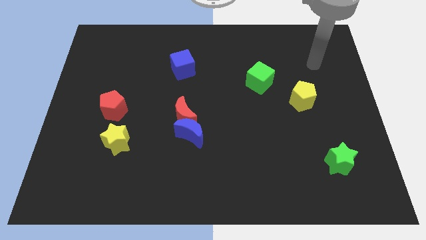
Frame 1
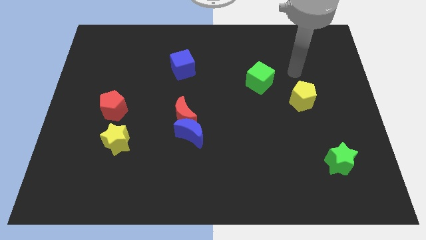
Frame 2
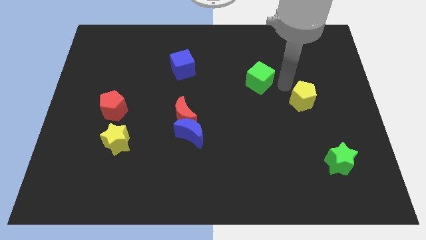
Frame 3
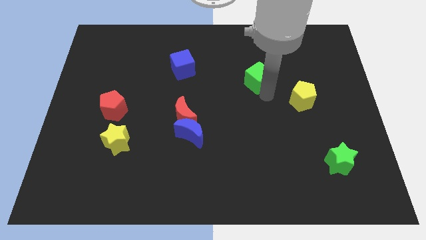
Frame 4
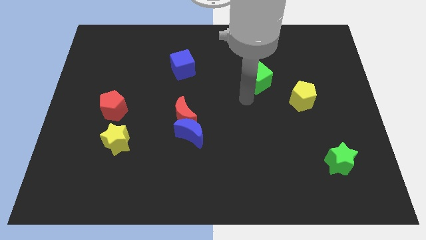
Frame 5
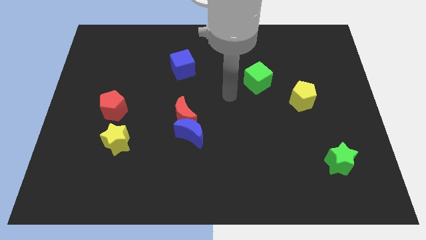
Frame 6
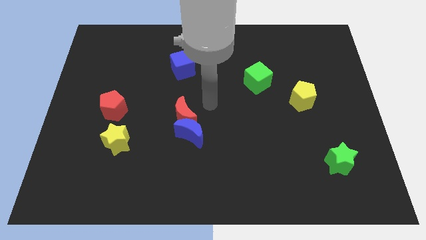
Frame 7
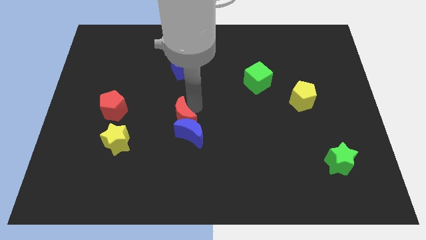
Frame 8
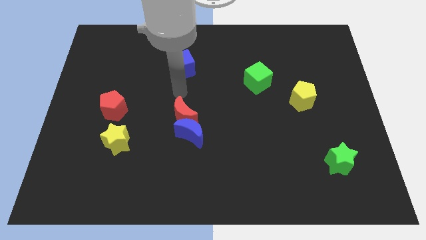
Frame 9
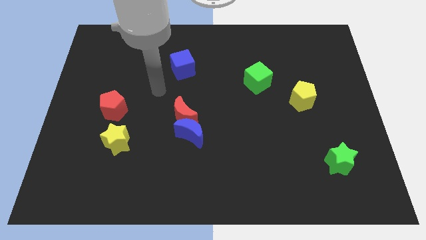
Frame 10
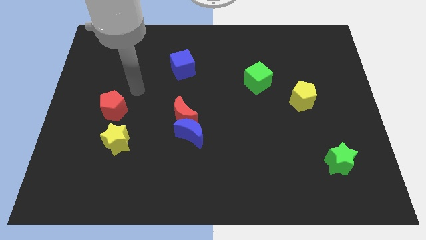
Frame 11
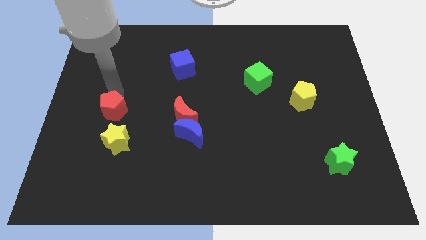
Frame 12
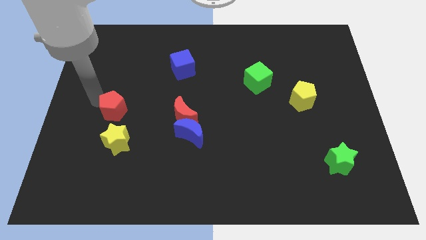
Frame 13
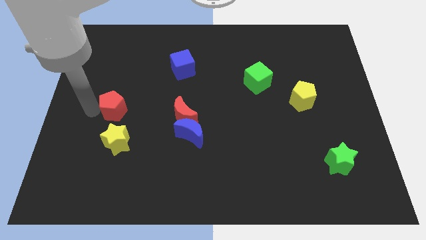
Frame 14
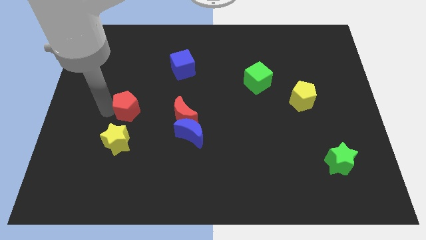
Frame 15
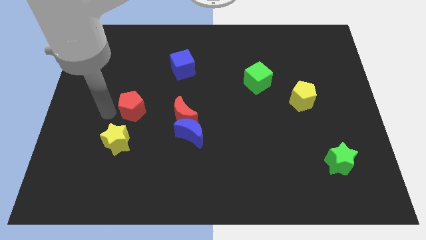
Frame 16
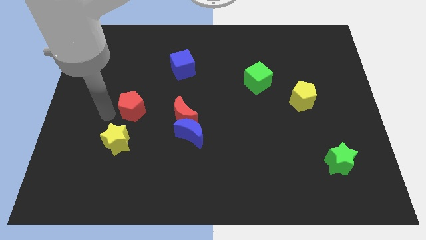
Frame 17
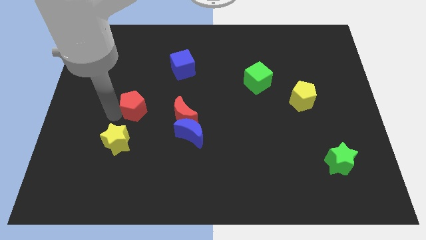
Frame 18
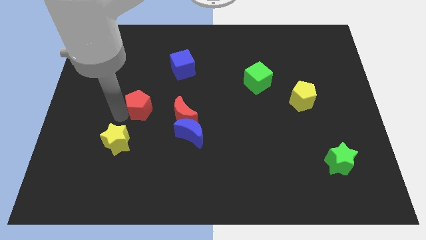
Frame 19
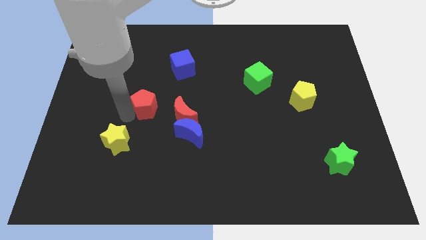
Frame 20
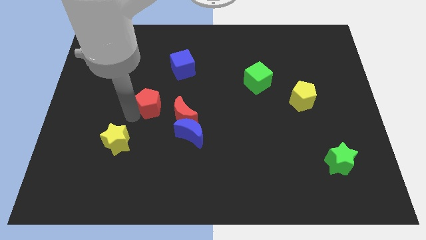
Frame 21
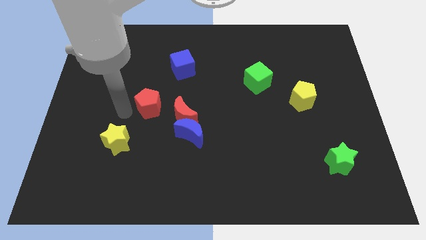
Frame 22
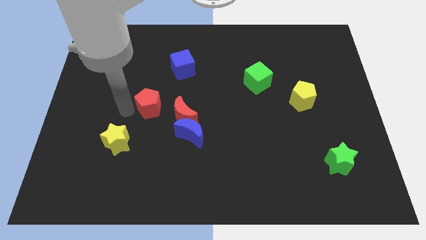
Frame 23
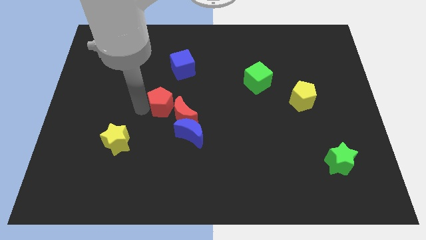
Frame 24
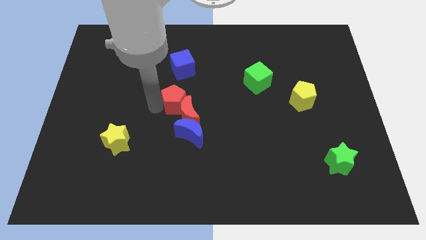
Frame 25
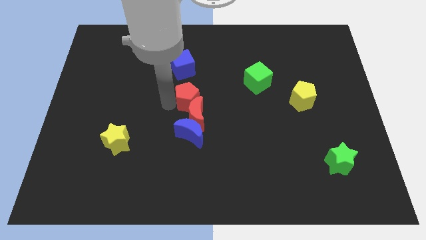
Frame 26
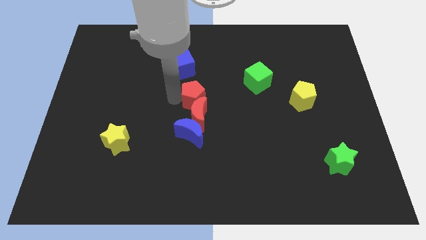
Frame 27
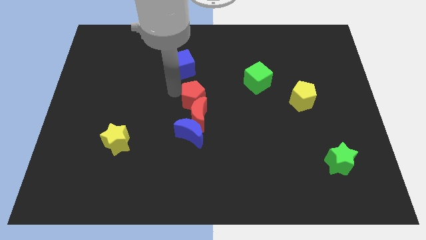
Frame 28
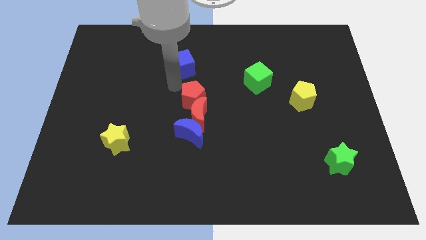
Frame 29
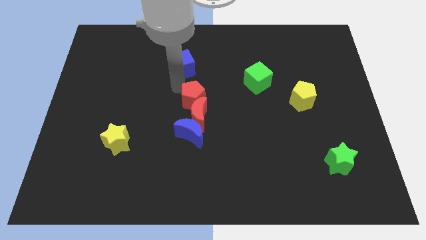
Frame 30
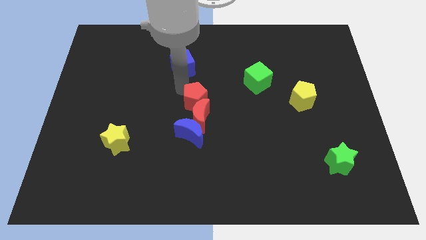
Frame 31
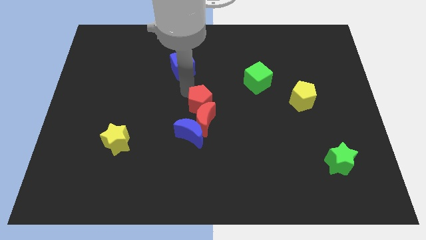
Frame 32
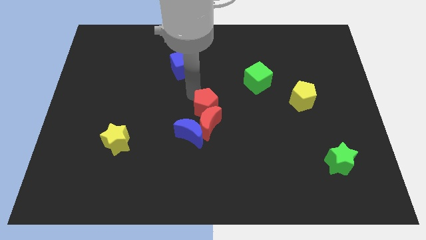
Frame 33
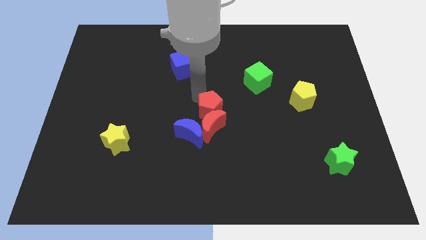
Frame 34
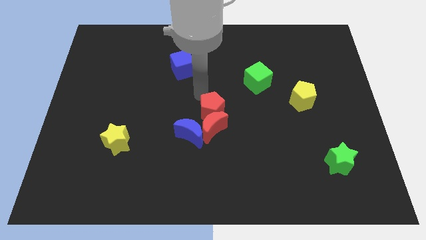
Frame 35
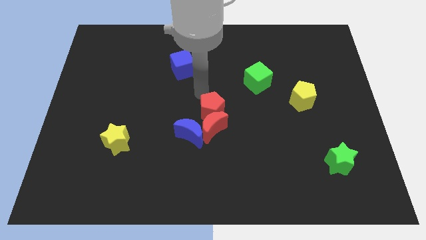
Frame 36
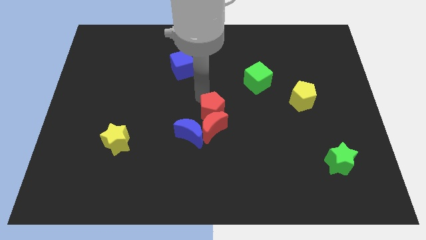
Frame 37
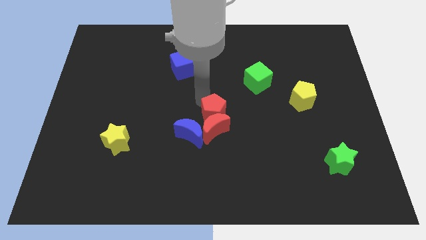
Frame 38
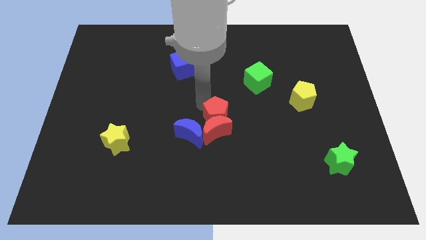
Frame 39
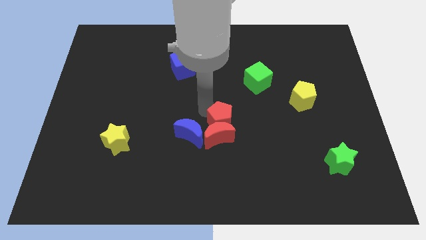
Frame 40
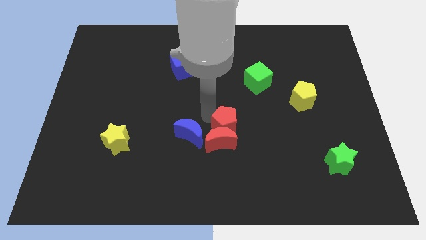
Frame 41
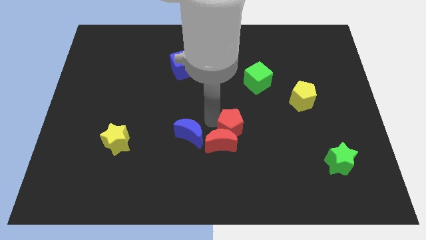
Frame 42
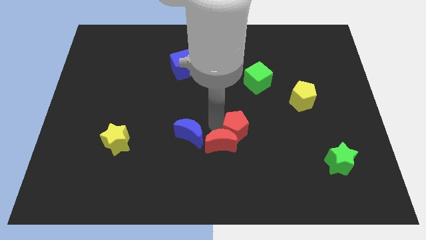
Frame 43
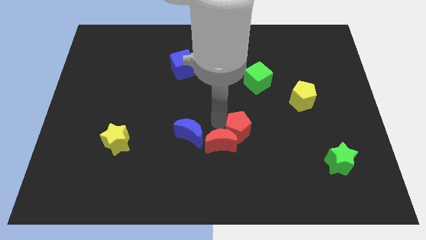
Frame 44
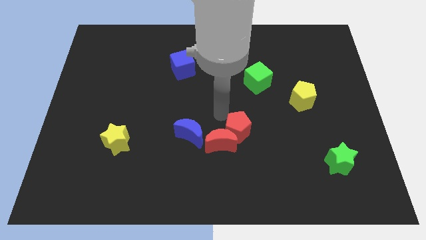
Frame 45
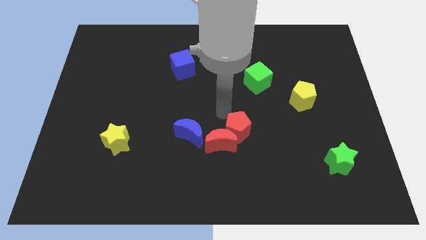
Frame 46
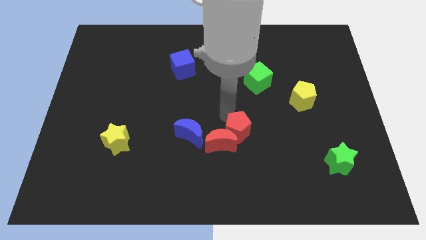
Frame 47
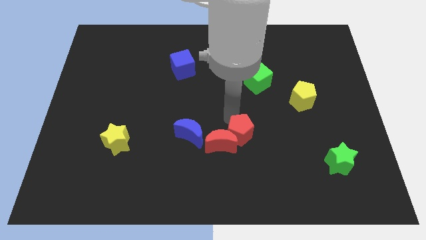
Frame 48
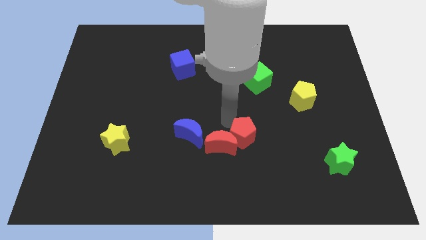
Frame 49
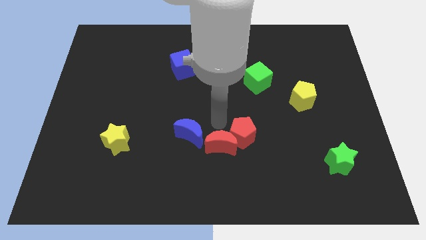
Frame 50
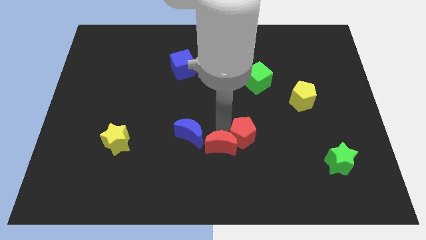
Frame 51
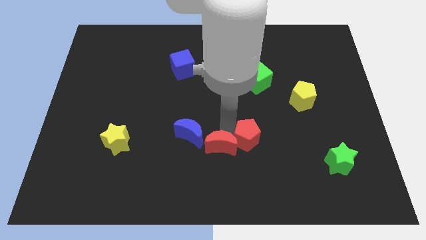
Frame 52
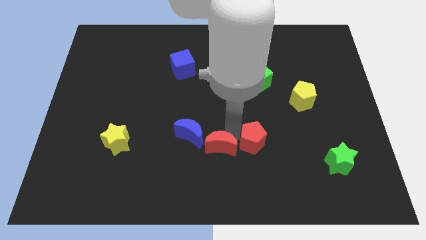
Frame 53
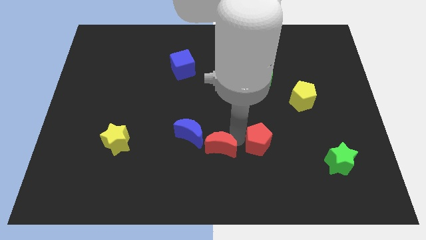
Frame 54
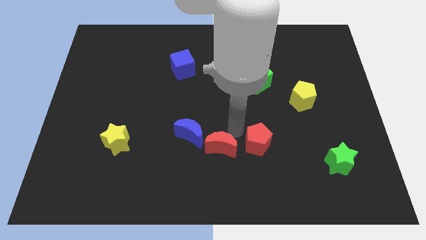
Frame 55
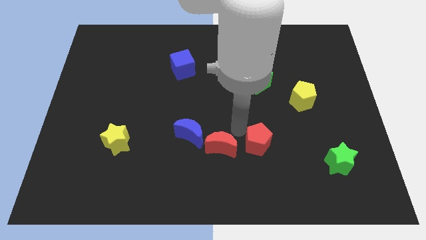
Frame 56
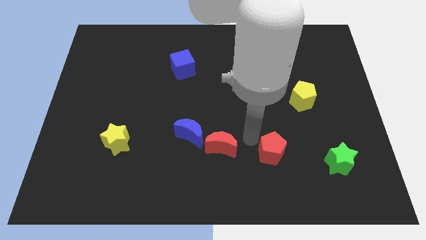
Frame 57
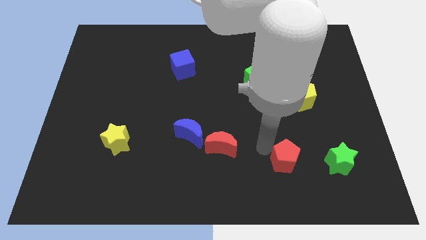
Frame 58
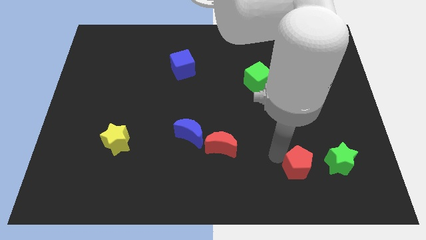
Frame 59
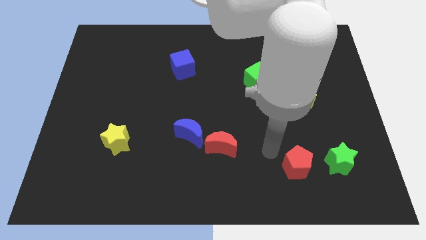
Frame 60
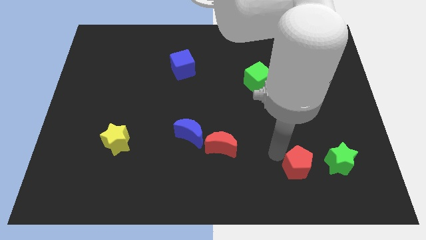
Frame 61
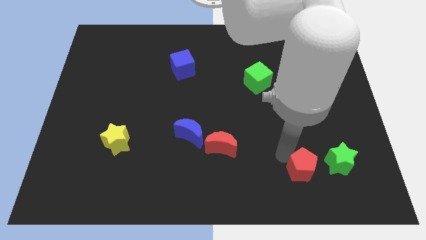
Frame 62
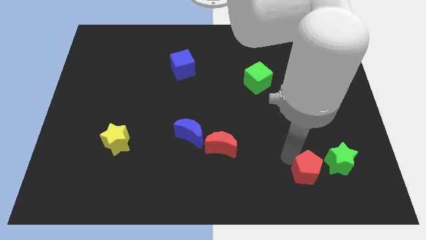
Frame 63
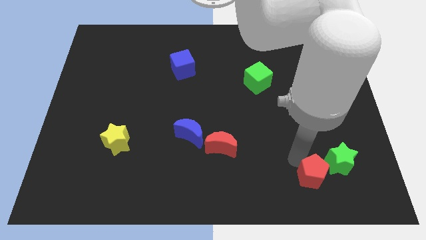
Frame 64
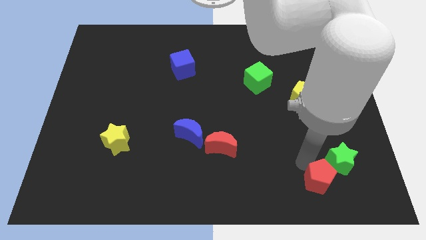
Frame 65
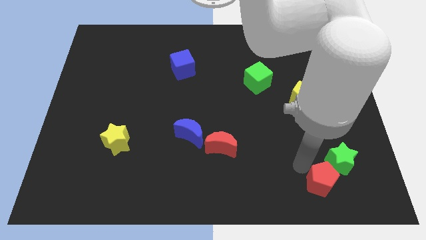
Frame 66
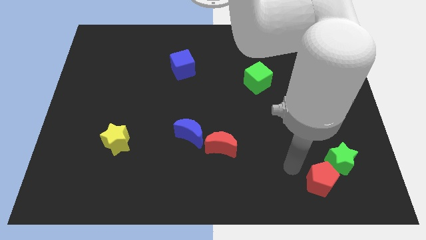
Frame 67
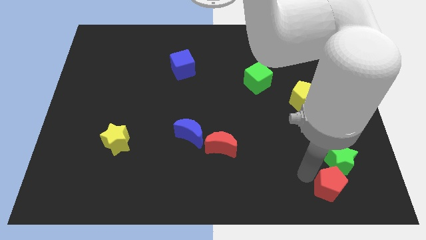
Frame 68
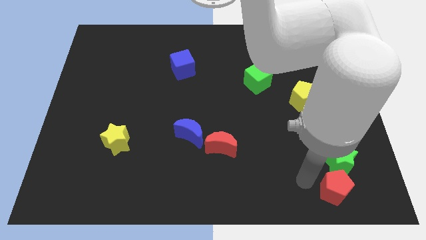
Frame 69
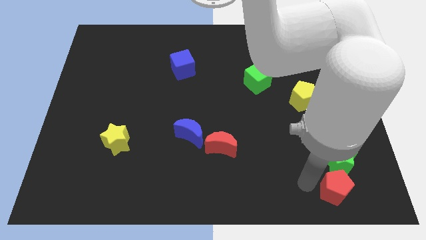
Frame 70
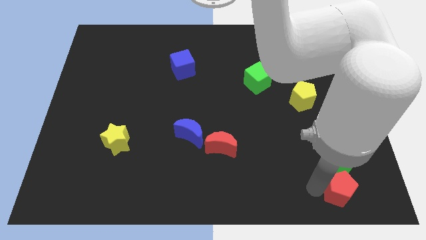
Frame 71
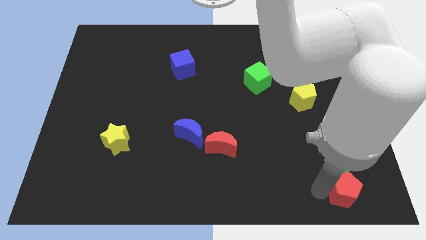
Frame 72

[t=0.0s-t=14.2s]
put the red pentagon to the bottom right of the board
